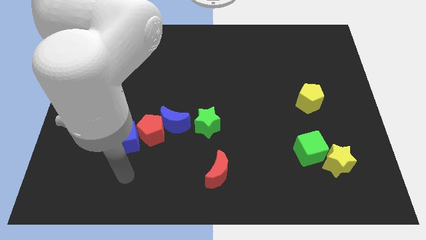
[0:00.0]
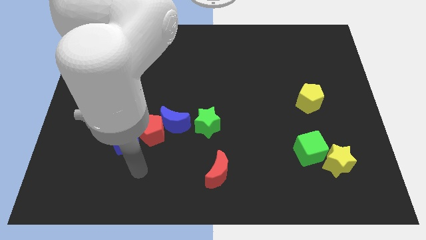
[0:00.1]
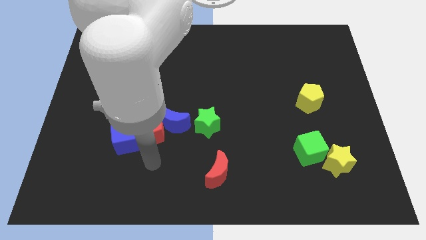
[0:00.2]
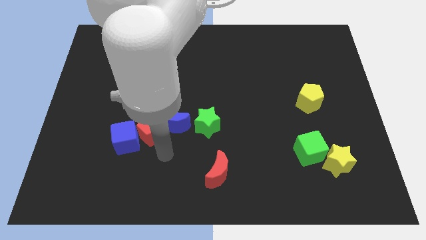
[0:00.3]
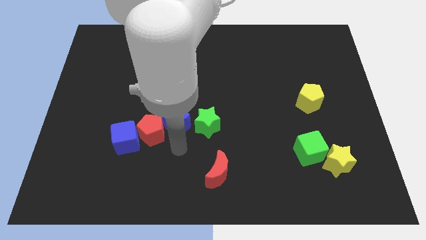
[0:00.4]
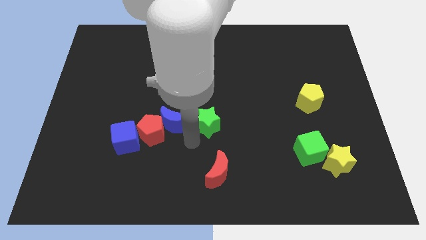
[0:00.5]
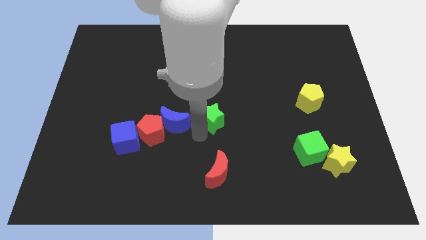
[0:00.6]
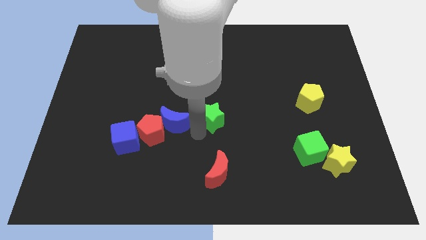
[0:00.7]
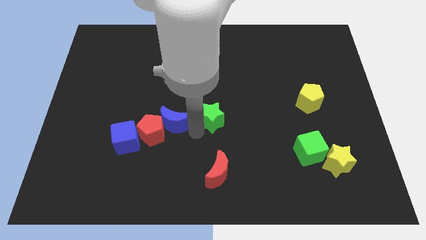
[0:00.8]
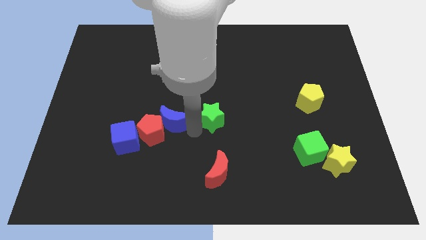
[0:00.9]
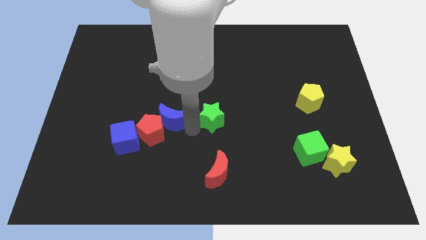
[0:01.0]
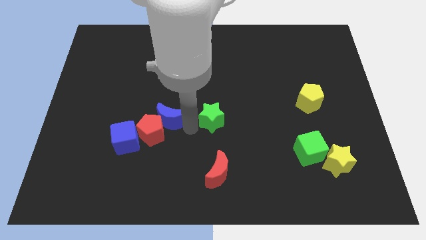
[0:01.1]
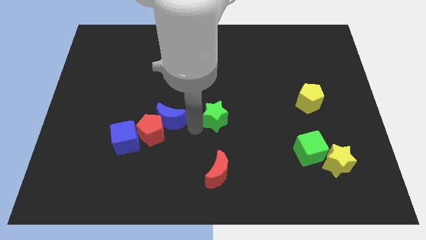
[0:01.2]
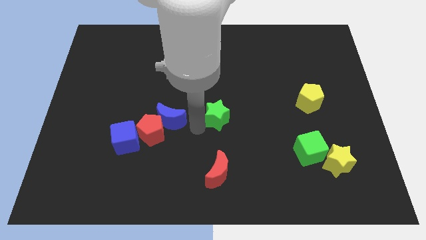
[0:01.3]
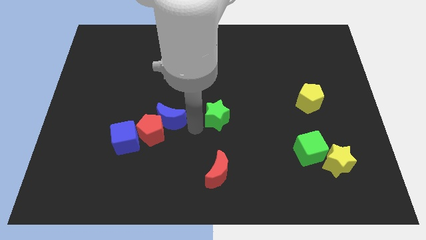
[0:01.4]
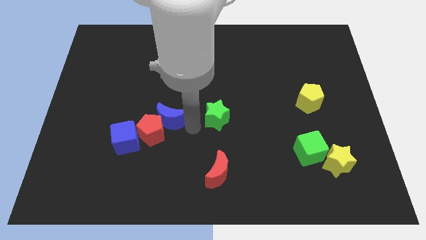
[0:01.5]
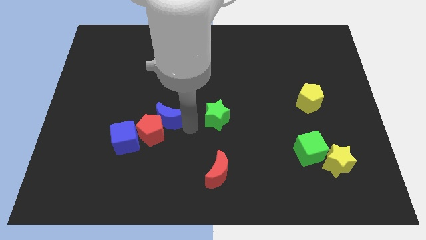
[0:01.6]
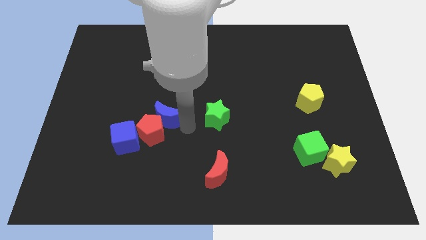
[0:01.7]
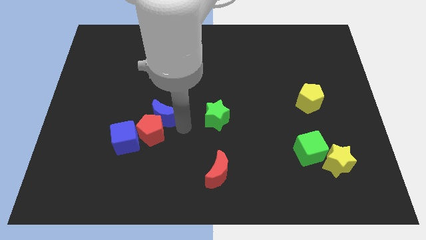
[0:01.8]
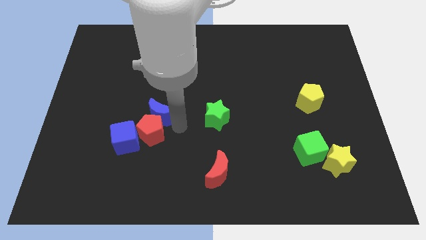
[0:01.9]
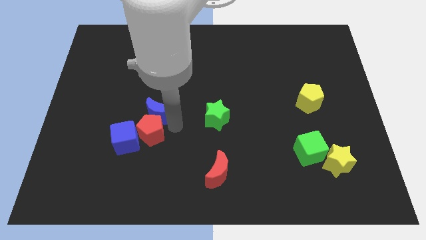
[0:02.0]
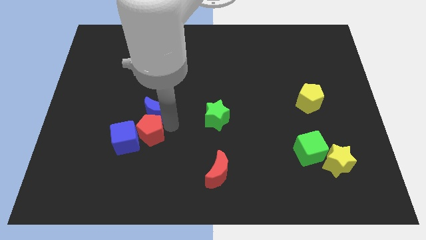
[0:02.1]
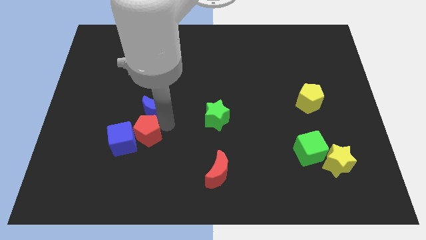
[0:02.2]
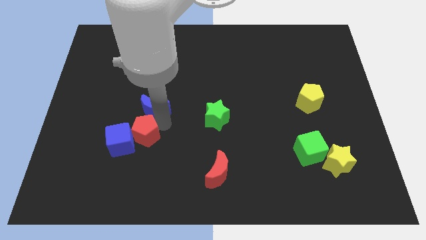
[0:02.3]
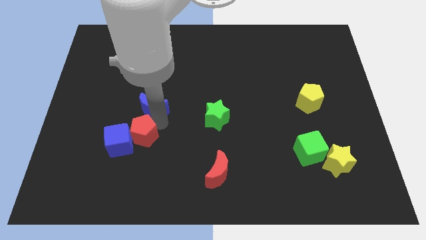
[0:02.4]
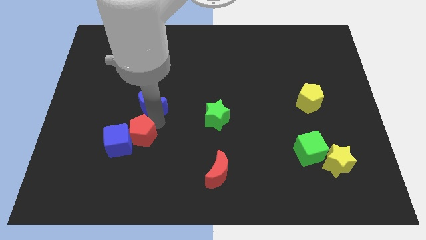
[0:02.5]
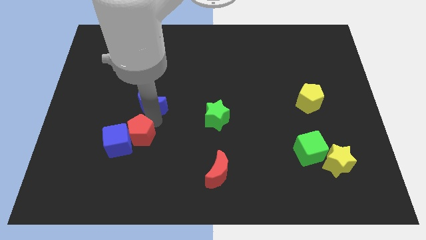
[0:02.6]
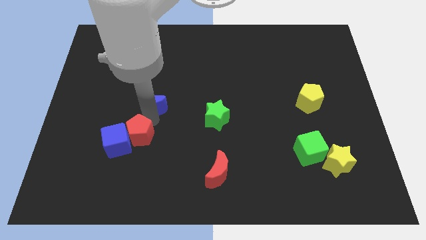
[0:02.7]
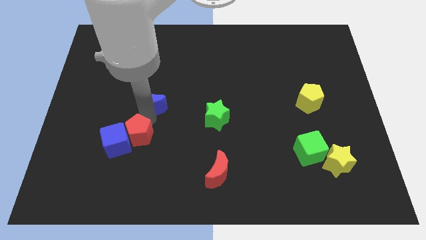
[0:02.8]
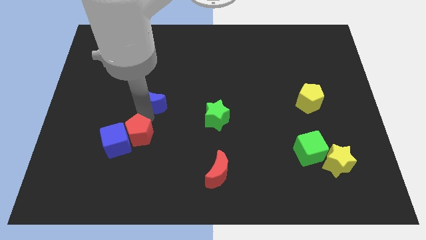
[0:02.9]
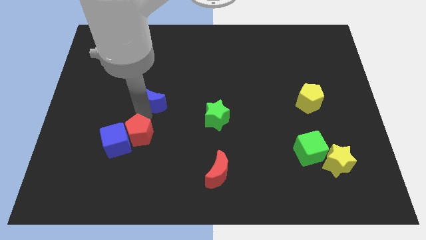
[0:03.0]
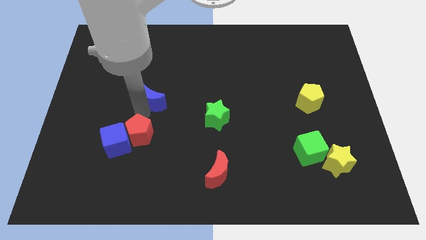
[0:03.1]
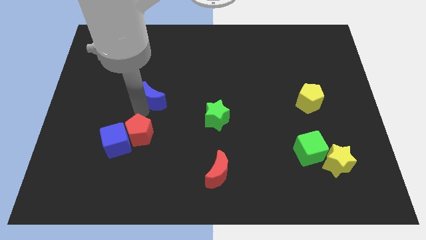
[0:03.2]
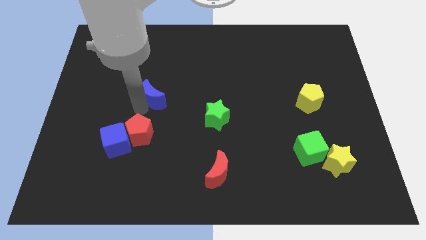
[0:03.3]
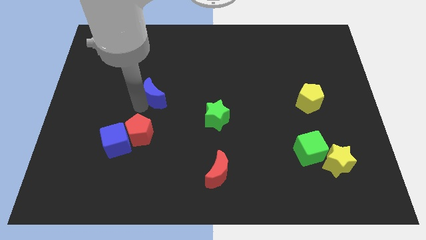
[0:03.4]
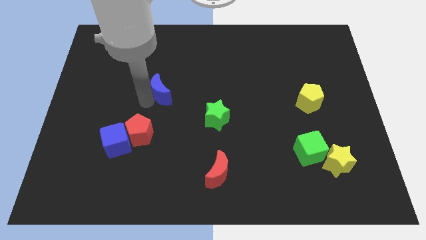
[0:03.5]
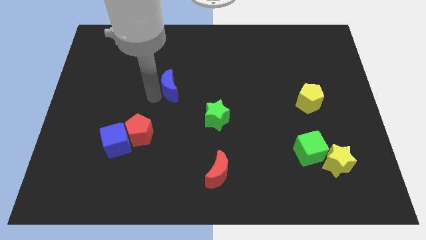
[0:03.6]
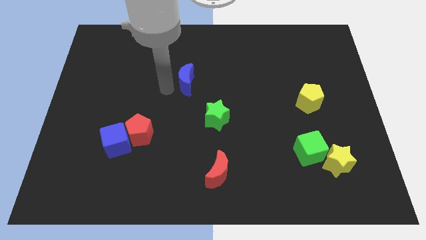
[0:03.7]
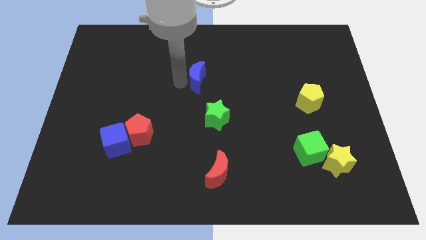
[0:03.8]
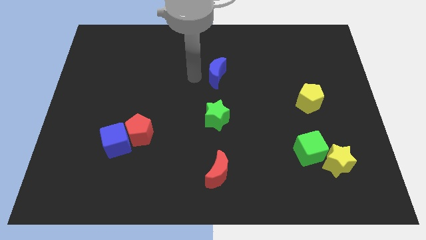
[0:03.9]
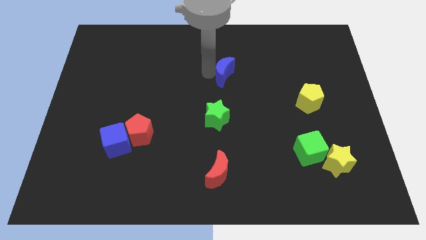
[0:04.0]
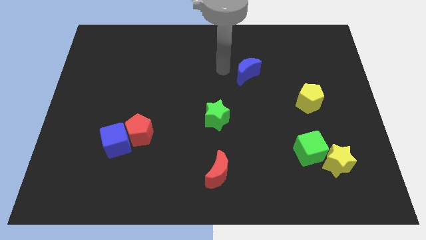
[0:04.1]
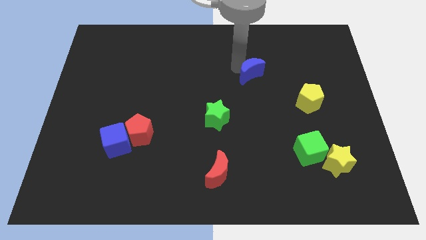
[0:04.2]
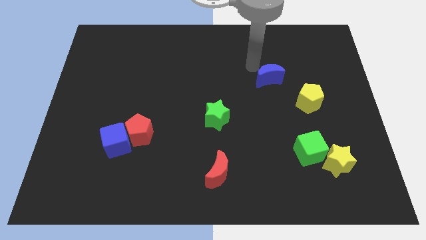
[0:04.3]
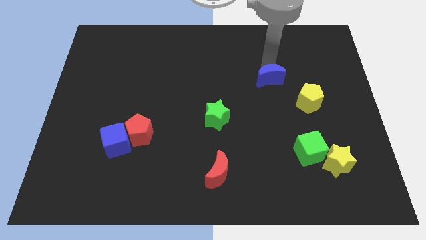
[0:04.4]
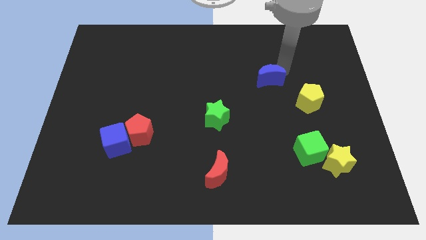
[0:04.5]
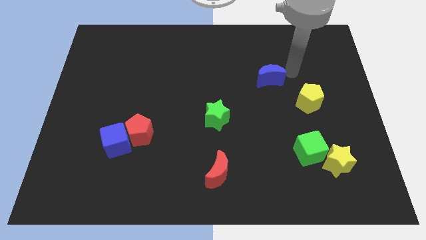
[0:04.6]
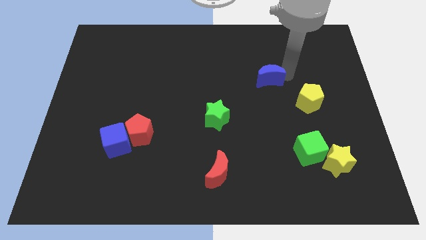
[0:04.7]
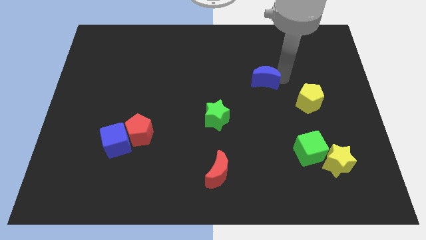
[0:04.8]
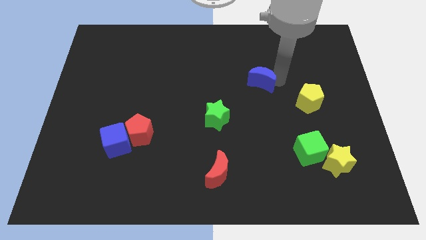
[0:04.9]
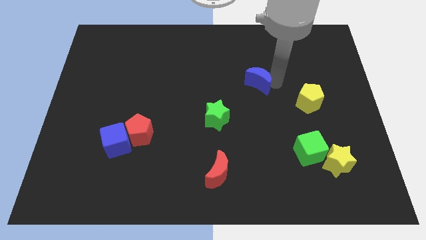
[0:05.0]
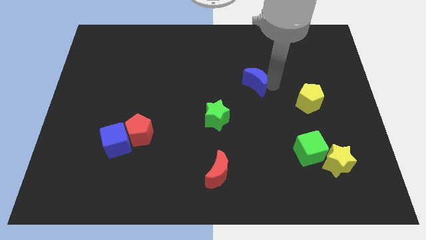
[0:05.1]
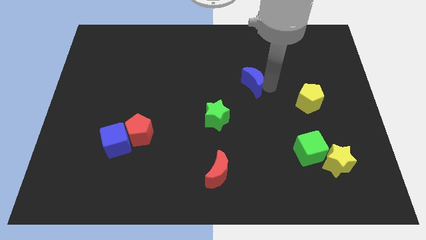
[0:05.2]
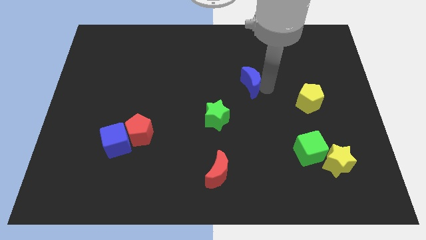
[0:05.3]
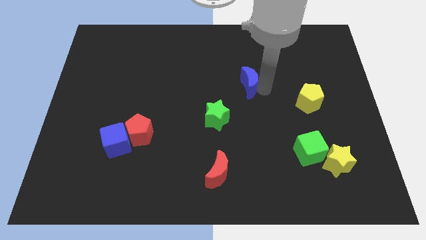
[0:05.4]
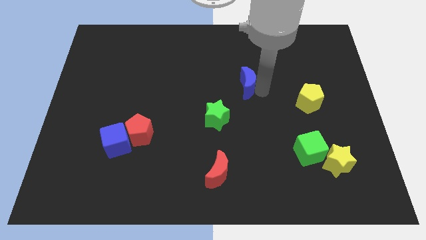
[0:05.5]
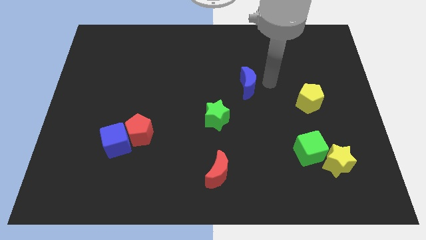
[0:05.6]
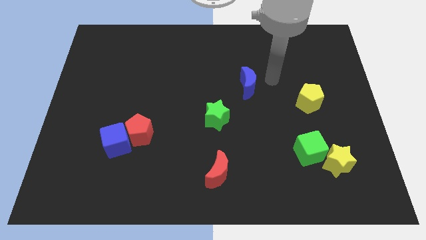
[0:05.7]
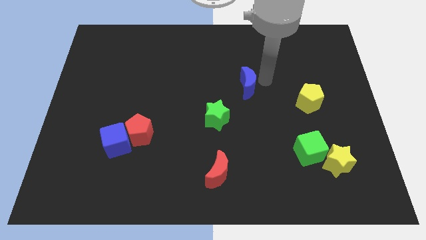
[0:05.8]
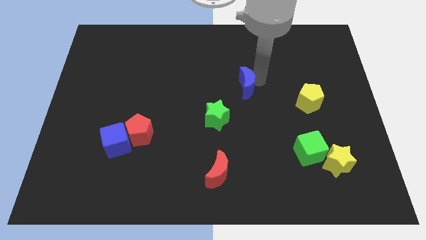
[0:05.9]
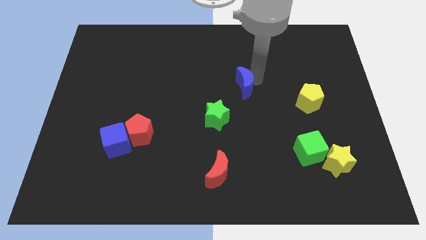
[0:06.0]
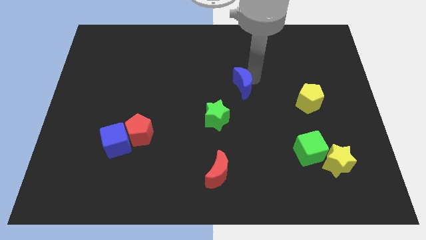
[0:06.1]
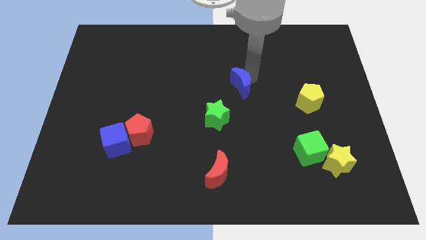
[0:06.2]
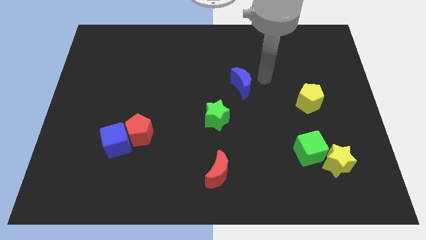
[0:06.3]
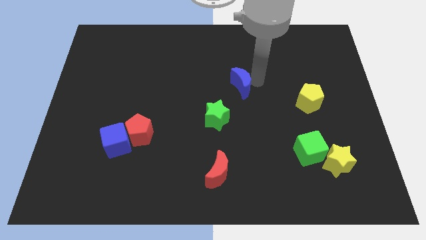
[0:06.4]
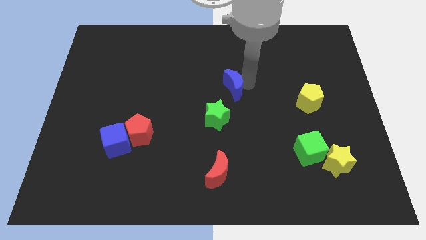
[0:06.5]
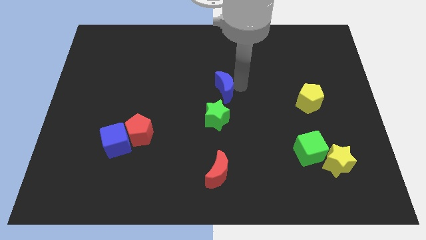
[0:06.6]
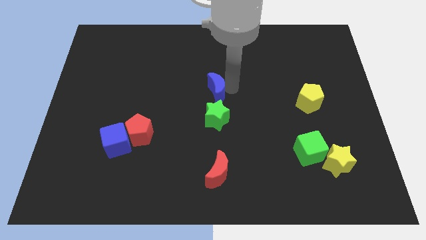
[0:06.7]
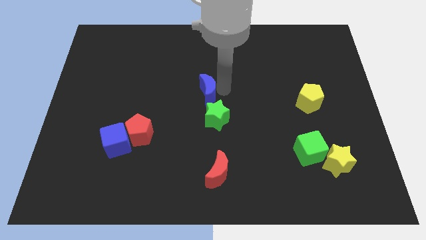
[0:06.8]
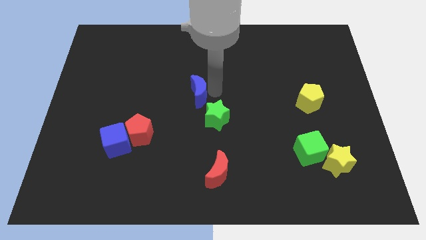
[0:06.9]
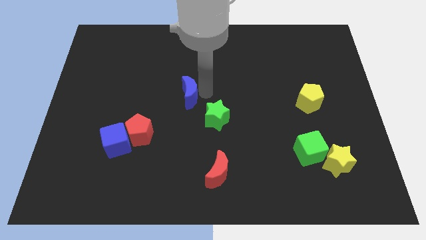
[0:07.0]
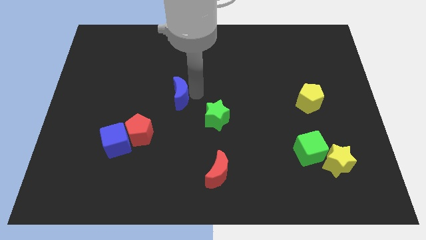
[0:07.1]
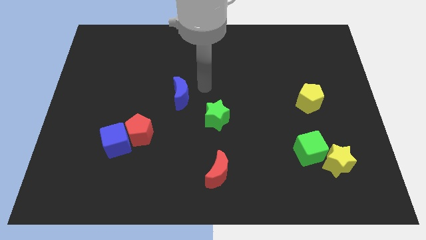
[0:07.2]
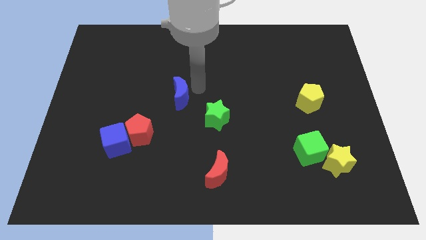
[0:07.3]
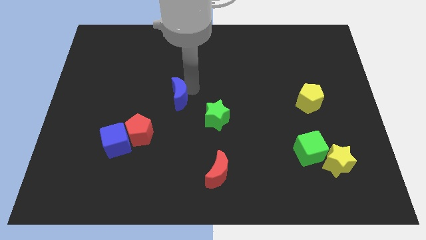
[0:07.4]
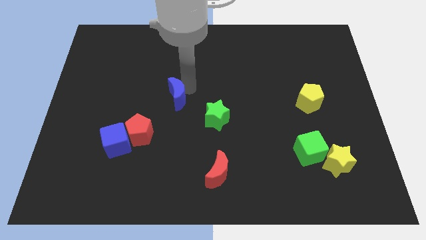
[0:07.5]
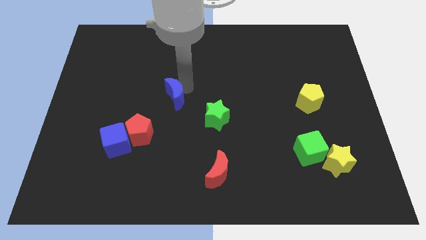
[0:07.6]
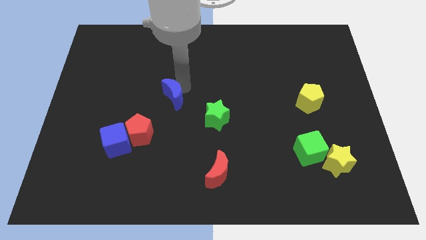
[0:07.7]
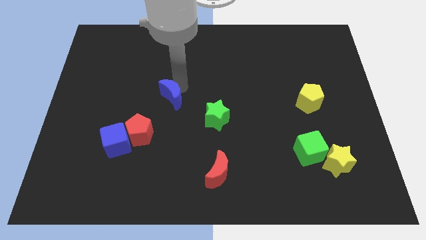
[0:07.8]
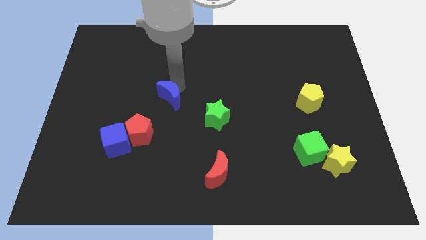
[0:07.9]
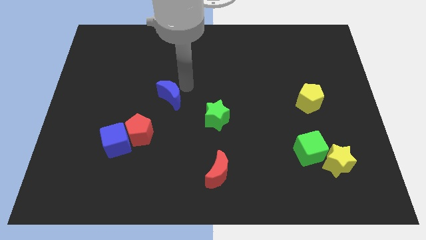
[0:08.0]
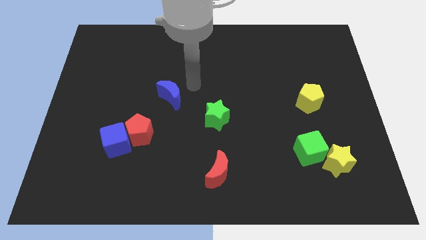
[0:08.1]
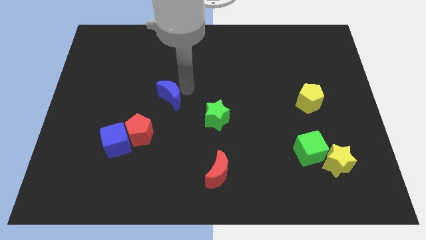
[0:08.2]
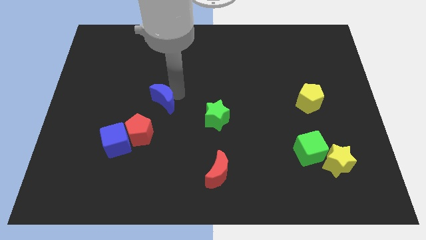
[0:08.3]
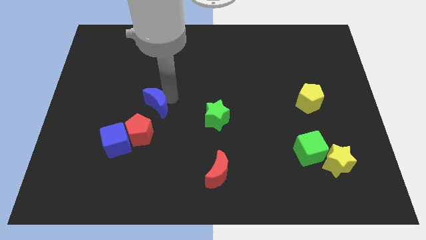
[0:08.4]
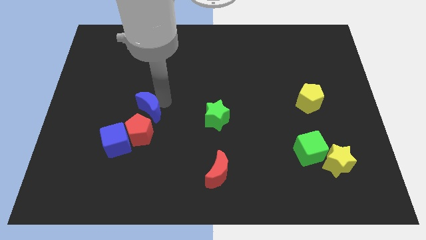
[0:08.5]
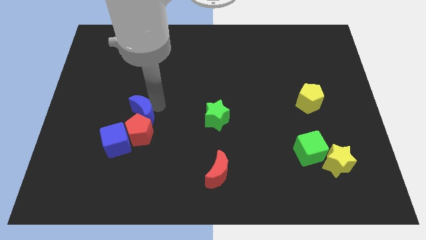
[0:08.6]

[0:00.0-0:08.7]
push the blue moon to the left a bit
